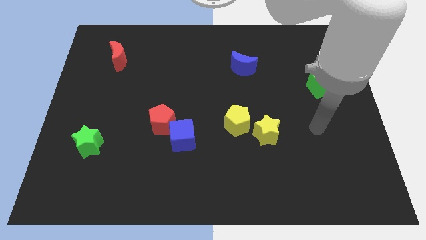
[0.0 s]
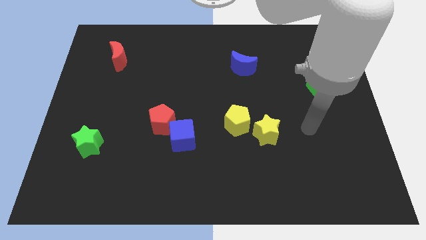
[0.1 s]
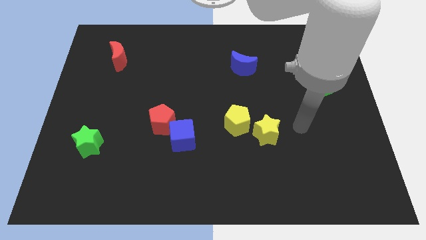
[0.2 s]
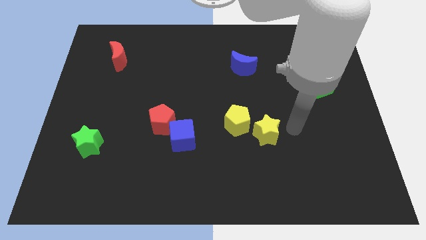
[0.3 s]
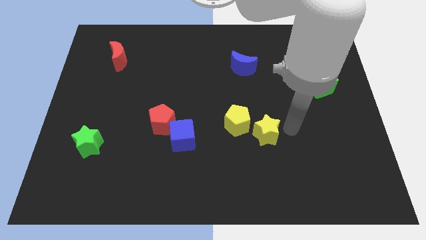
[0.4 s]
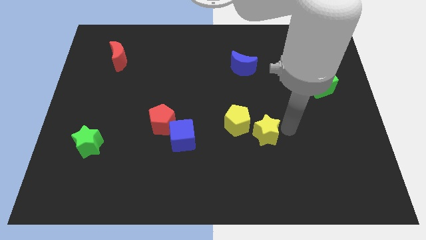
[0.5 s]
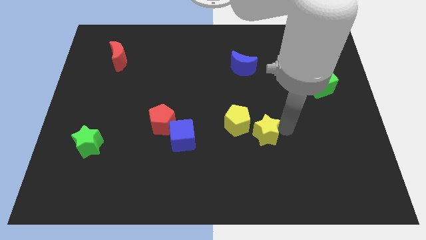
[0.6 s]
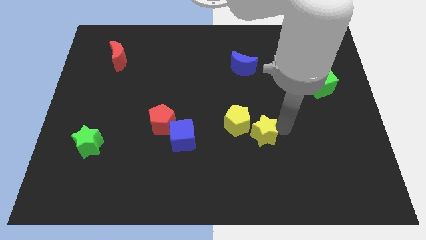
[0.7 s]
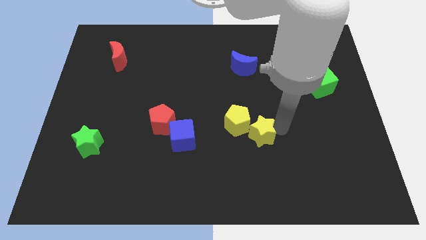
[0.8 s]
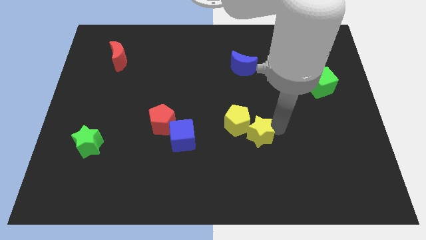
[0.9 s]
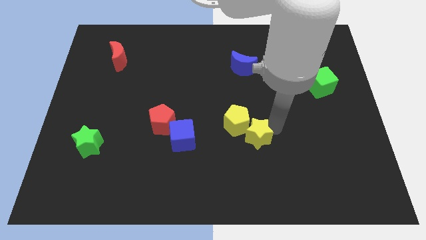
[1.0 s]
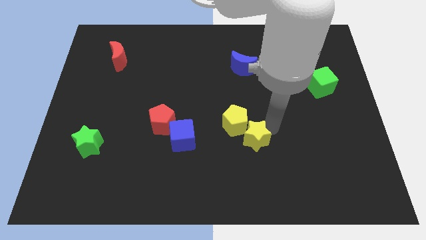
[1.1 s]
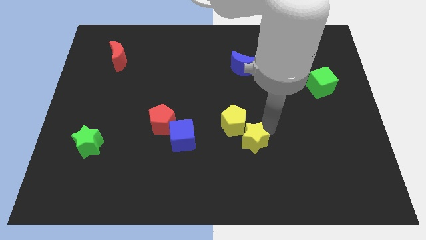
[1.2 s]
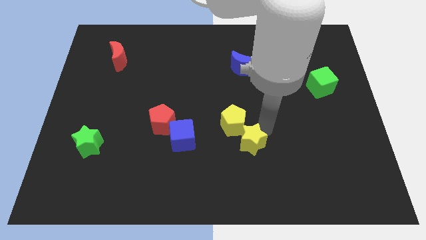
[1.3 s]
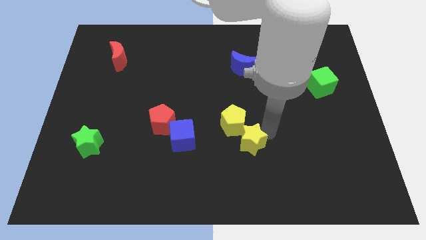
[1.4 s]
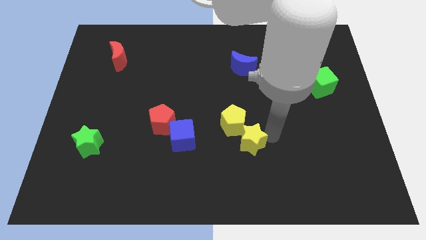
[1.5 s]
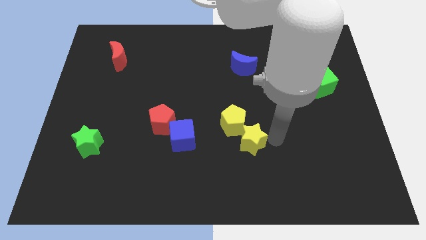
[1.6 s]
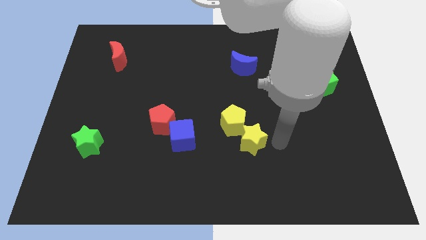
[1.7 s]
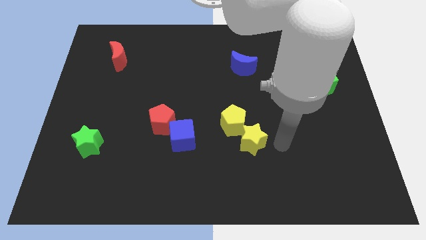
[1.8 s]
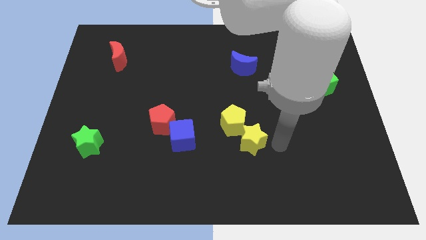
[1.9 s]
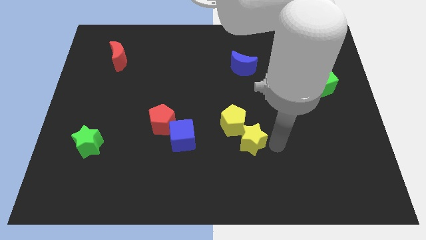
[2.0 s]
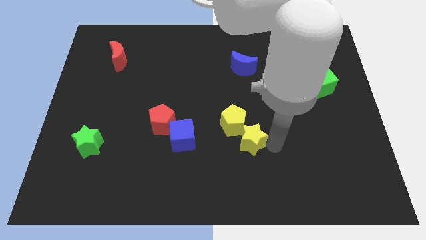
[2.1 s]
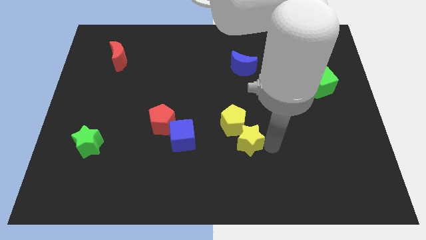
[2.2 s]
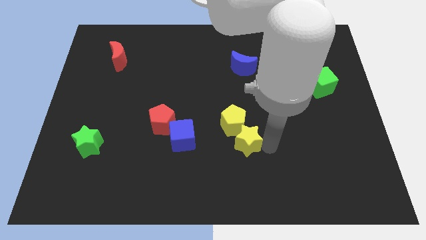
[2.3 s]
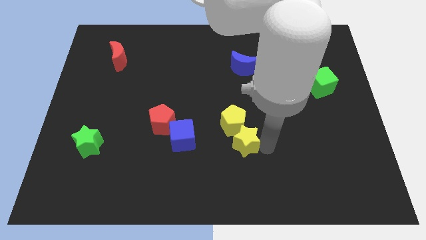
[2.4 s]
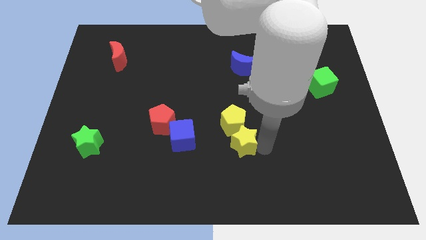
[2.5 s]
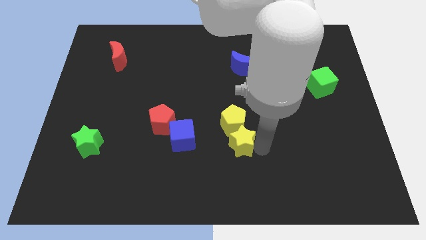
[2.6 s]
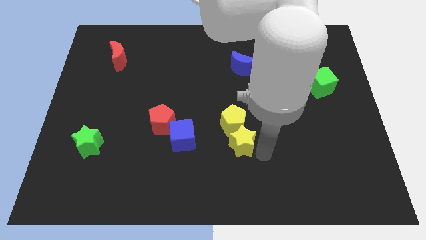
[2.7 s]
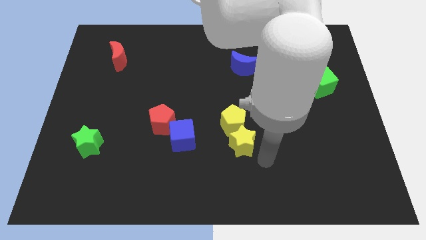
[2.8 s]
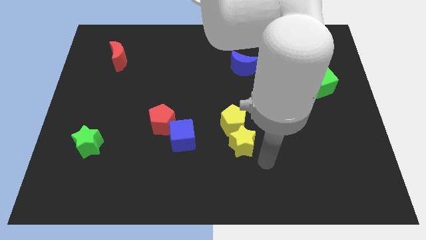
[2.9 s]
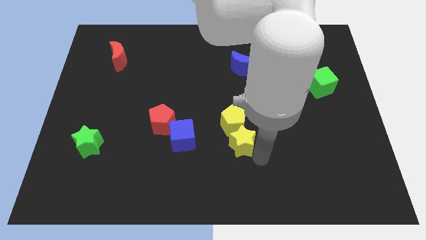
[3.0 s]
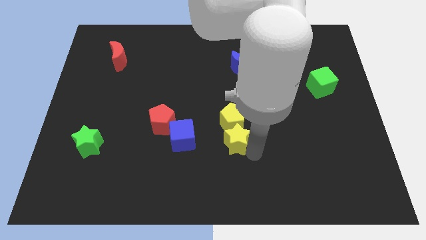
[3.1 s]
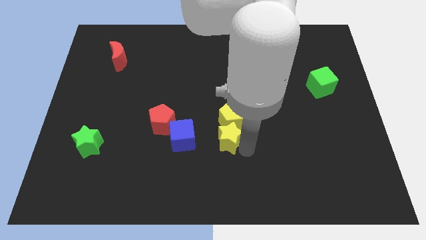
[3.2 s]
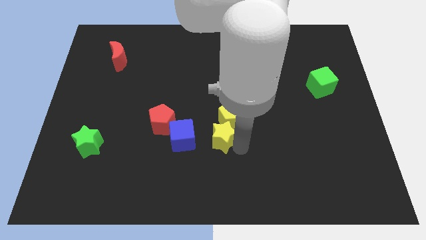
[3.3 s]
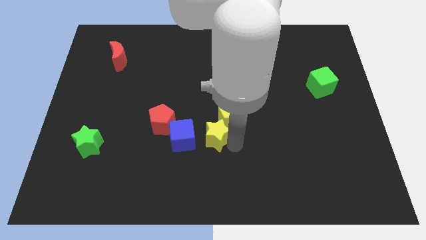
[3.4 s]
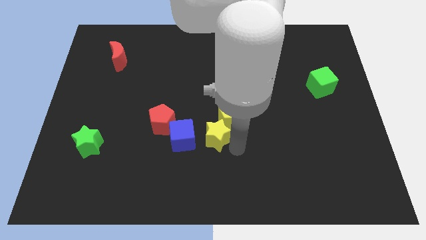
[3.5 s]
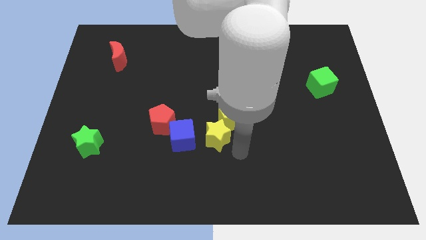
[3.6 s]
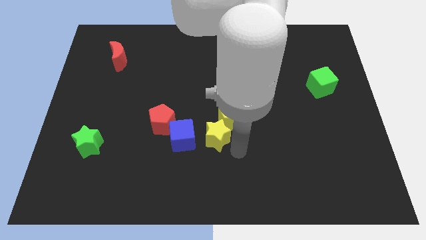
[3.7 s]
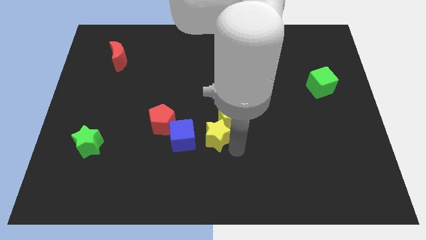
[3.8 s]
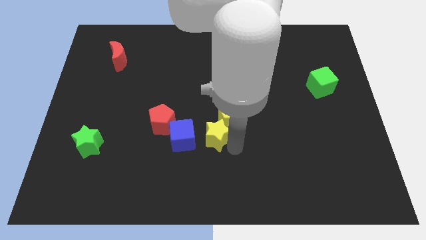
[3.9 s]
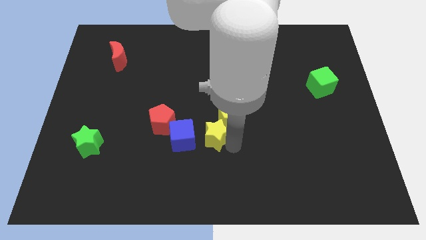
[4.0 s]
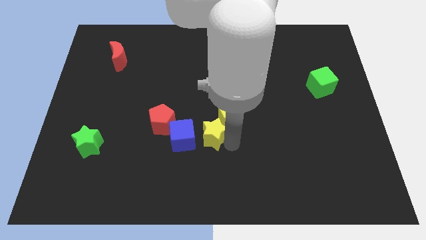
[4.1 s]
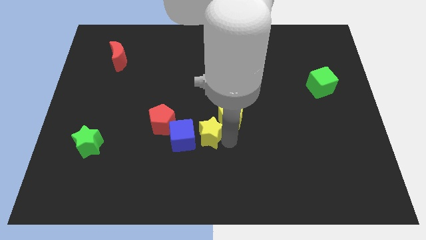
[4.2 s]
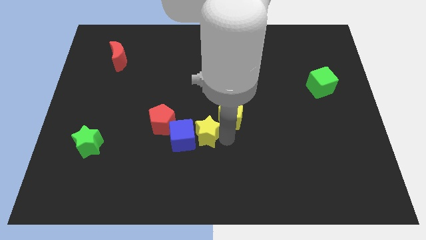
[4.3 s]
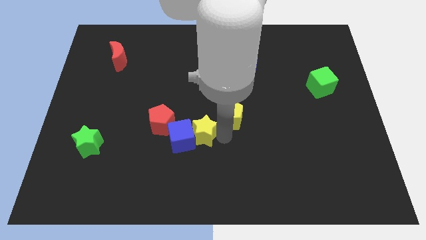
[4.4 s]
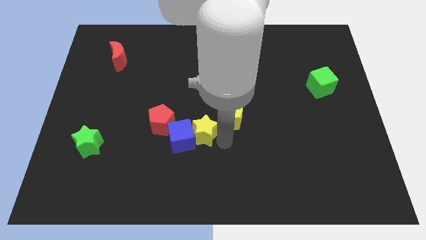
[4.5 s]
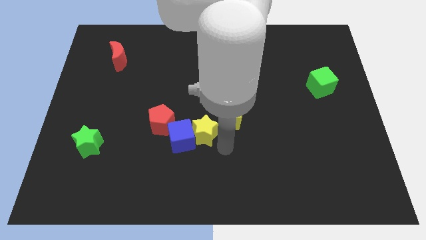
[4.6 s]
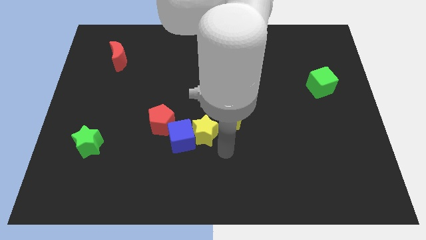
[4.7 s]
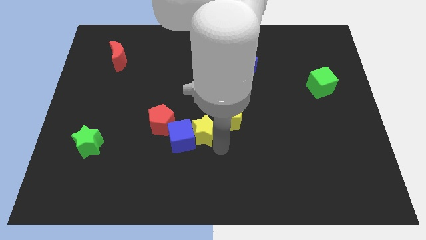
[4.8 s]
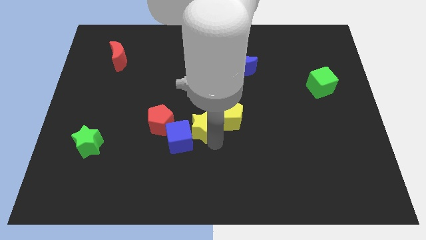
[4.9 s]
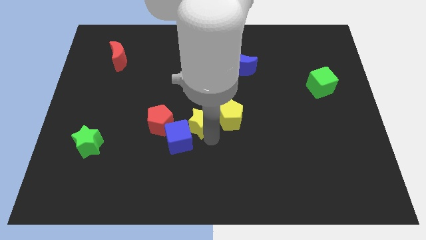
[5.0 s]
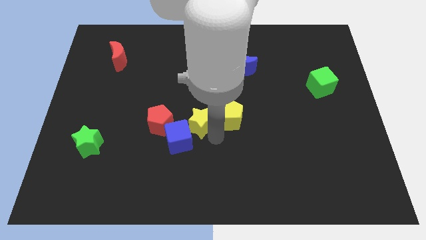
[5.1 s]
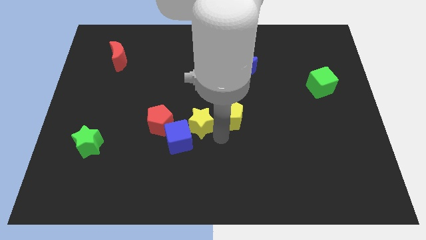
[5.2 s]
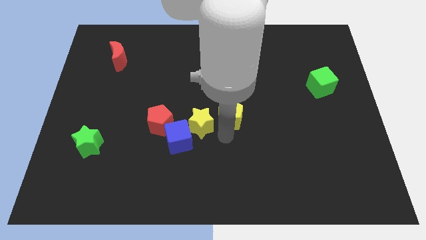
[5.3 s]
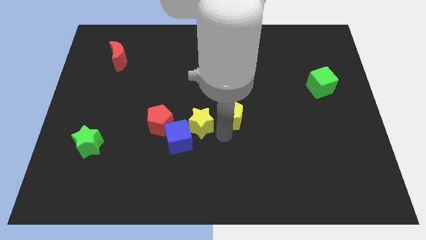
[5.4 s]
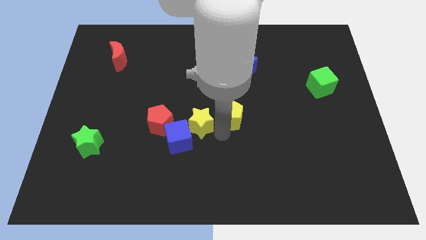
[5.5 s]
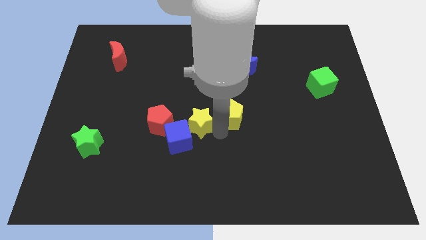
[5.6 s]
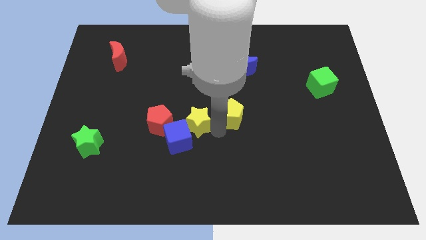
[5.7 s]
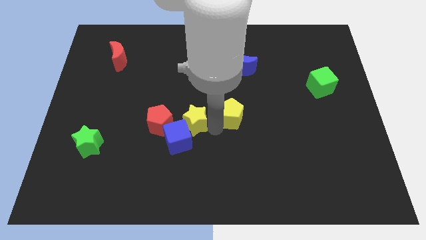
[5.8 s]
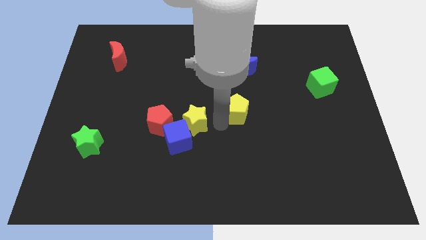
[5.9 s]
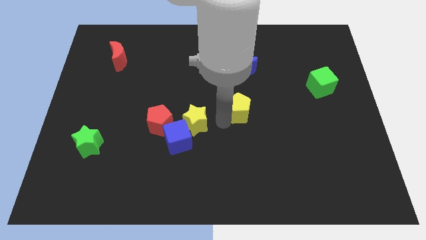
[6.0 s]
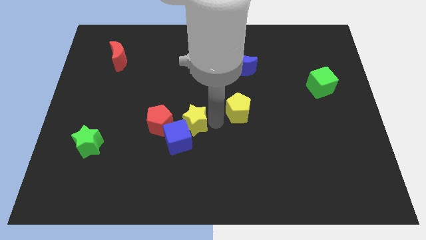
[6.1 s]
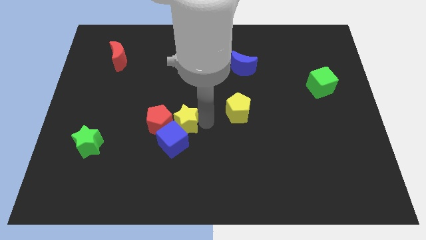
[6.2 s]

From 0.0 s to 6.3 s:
push the yellow star close to the red pentagon

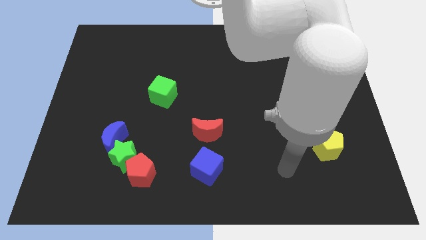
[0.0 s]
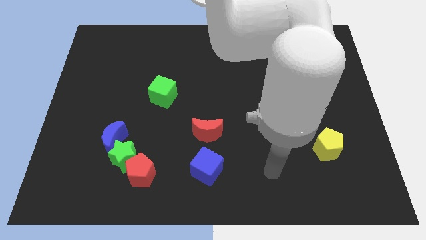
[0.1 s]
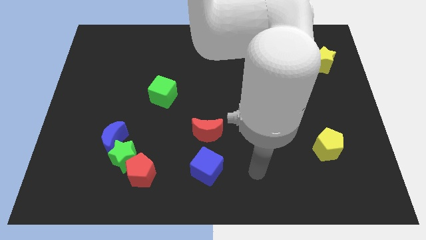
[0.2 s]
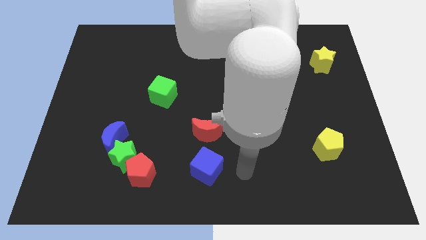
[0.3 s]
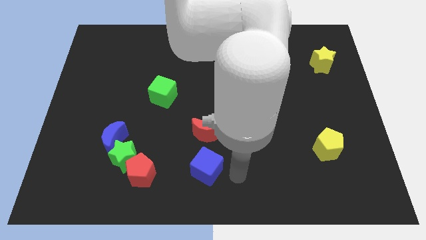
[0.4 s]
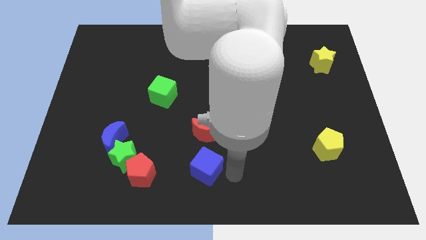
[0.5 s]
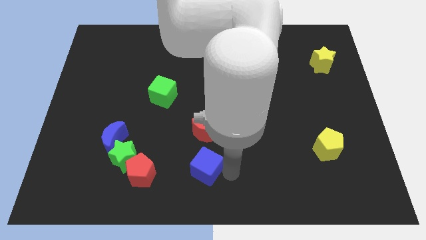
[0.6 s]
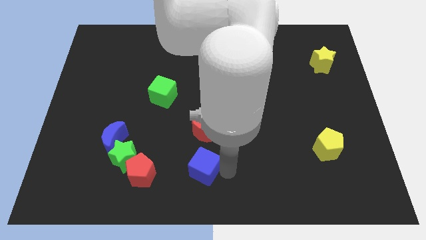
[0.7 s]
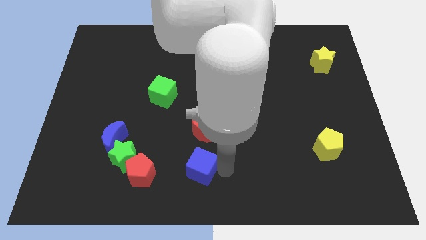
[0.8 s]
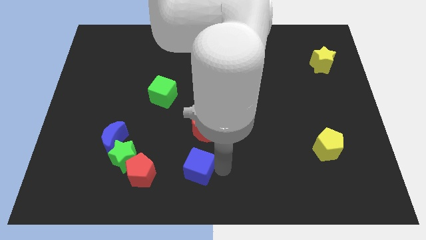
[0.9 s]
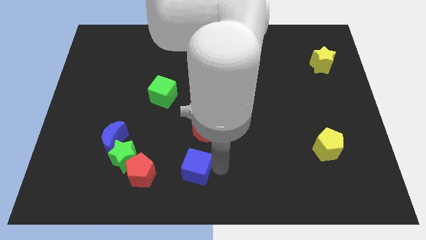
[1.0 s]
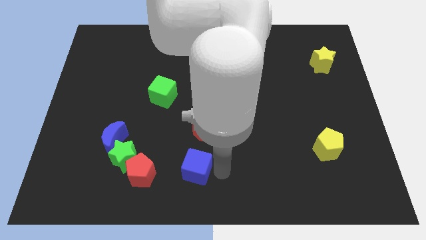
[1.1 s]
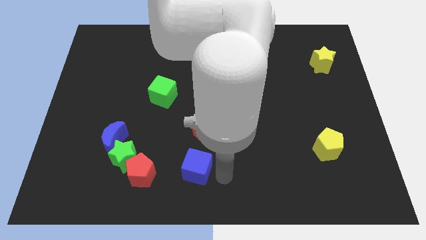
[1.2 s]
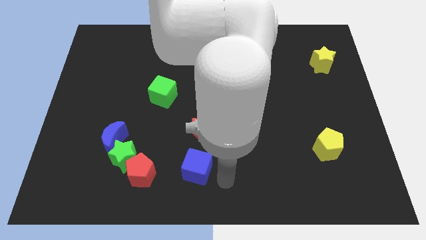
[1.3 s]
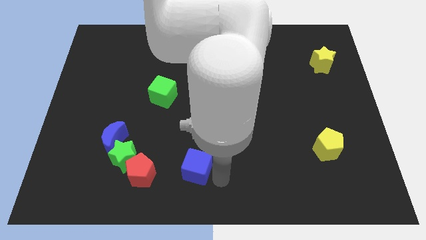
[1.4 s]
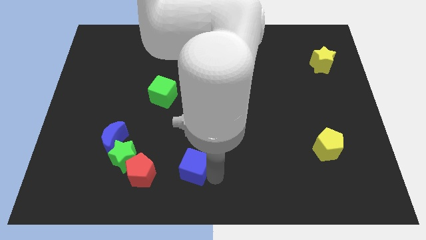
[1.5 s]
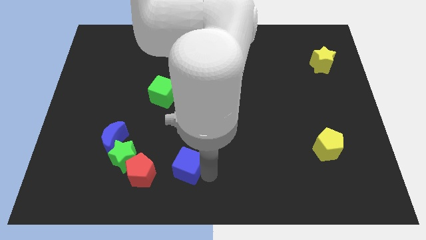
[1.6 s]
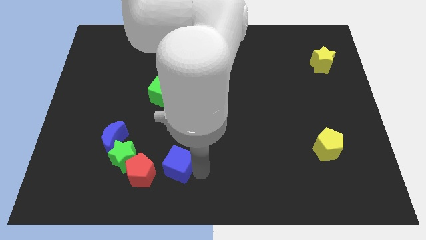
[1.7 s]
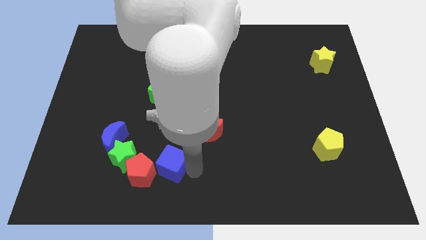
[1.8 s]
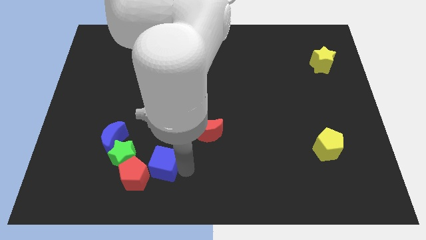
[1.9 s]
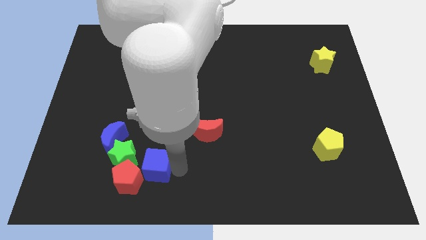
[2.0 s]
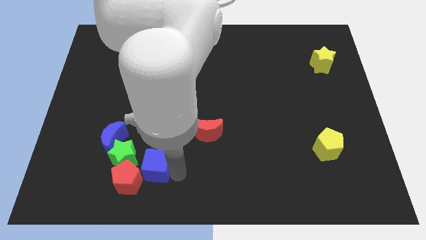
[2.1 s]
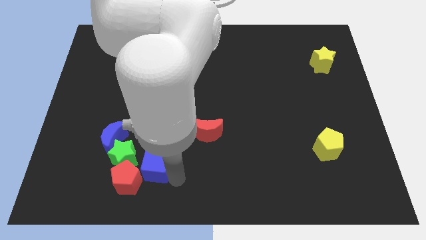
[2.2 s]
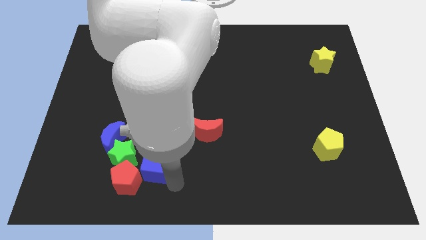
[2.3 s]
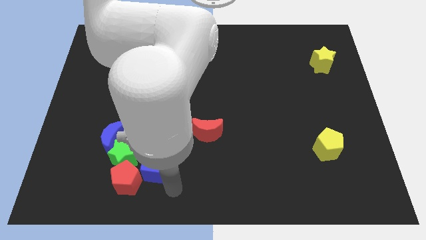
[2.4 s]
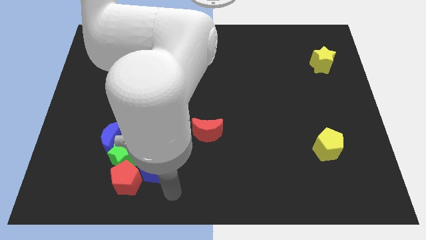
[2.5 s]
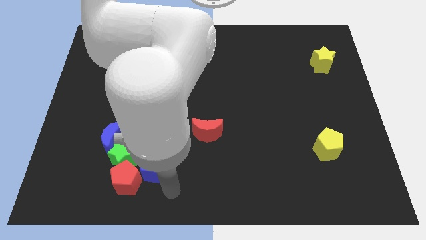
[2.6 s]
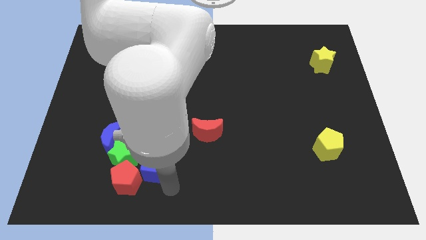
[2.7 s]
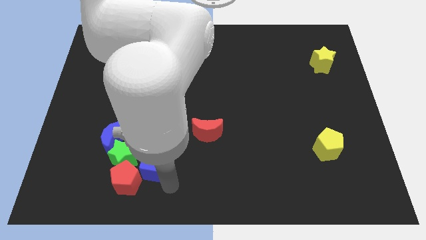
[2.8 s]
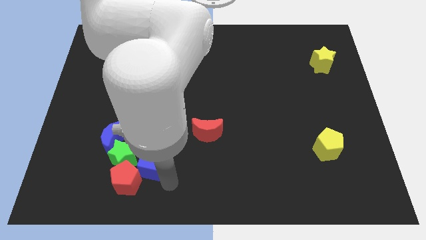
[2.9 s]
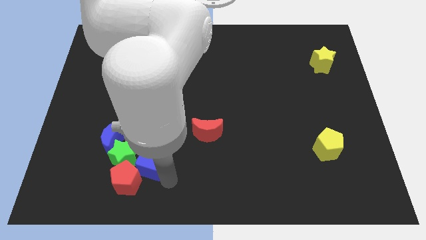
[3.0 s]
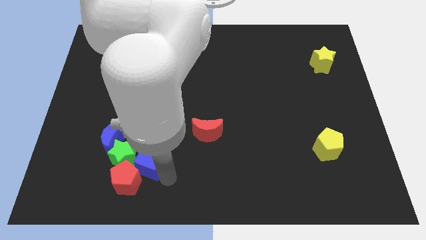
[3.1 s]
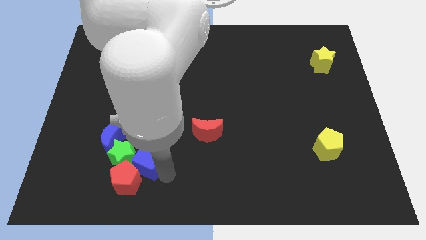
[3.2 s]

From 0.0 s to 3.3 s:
slide the blue cube towards the green star
